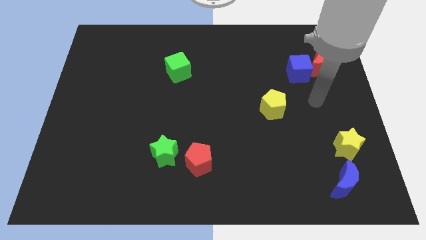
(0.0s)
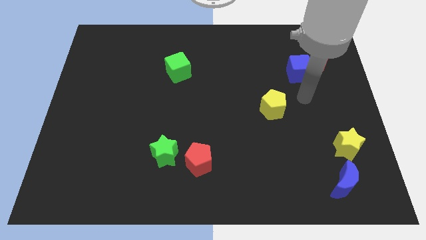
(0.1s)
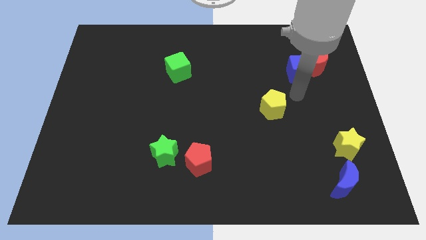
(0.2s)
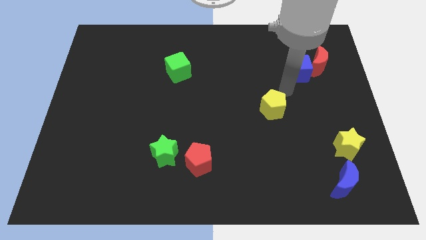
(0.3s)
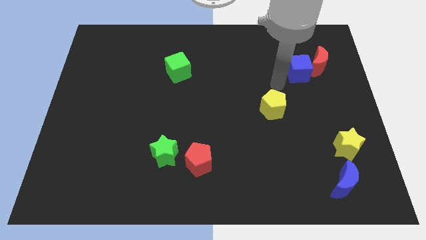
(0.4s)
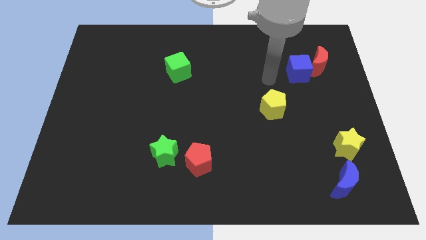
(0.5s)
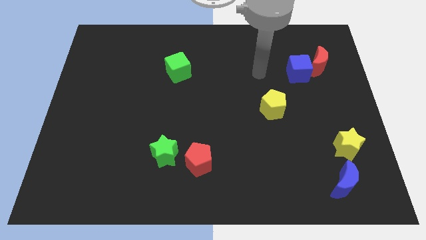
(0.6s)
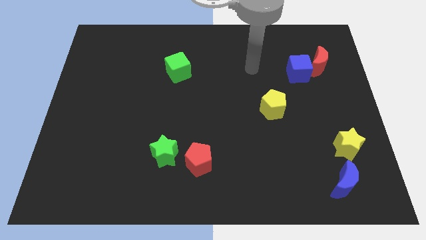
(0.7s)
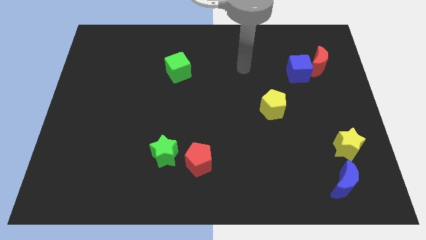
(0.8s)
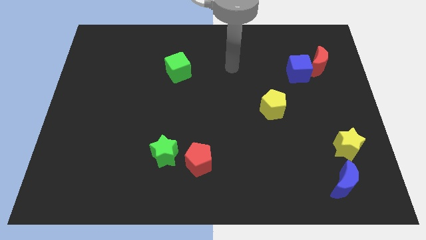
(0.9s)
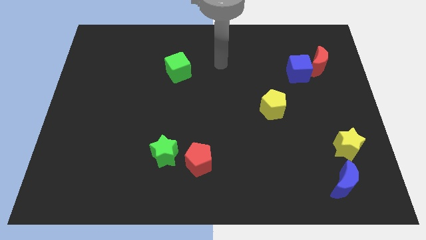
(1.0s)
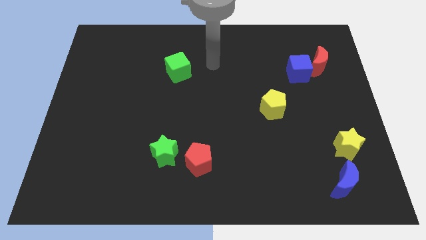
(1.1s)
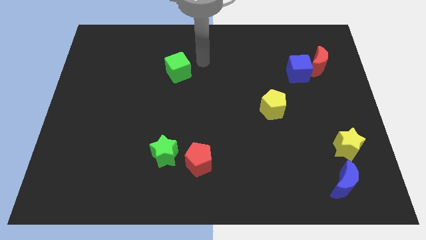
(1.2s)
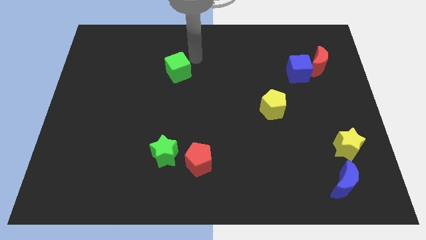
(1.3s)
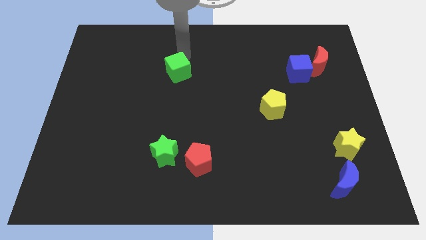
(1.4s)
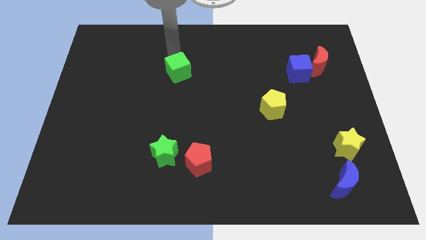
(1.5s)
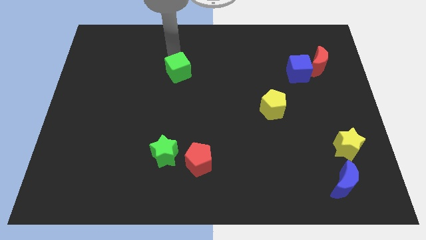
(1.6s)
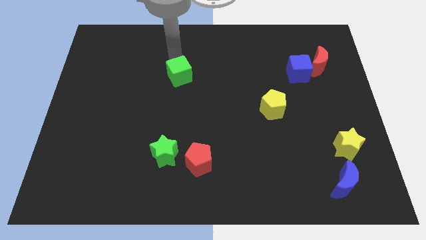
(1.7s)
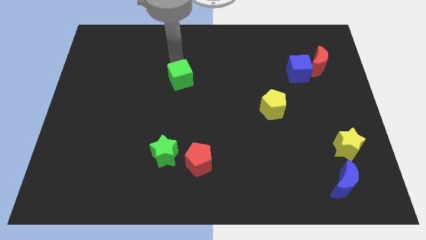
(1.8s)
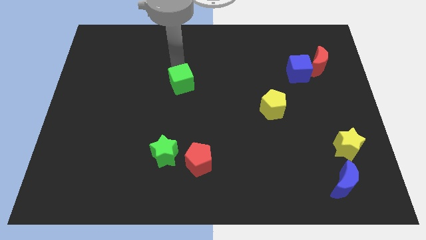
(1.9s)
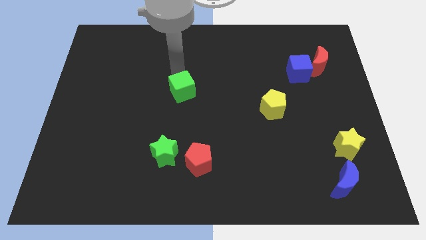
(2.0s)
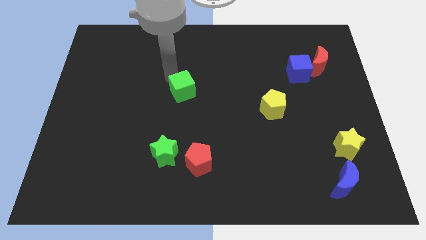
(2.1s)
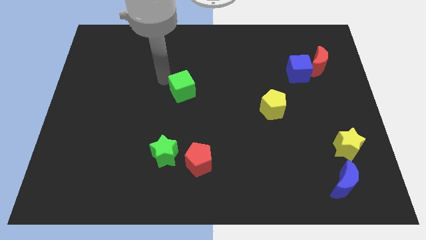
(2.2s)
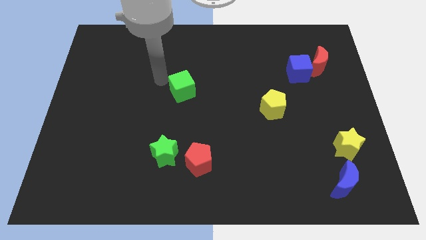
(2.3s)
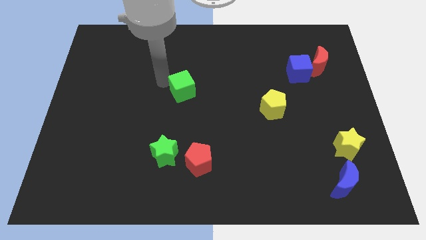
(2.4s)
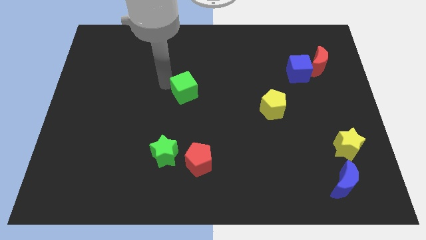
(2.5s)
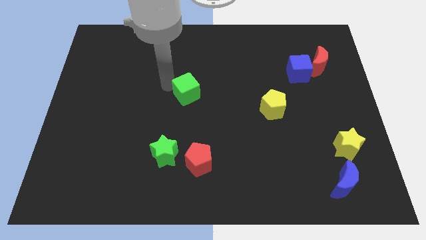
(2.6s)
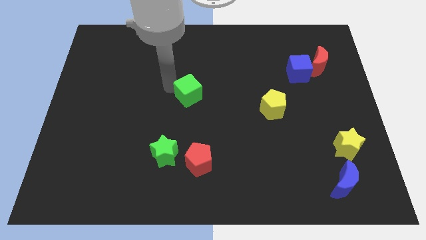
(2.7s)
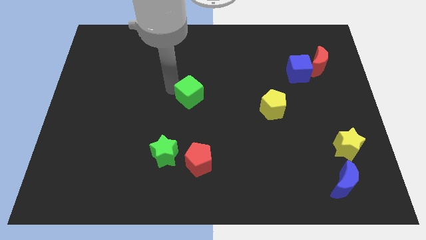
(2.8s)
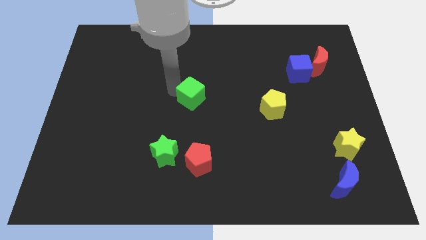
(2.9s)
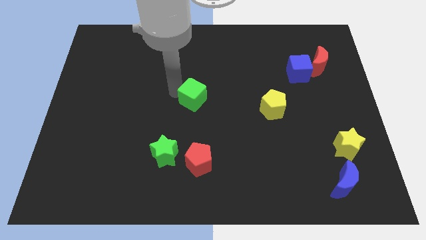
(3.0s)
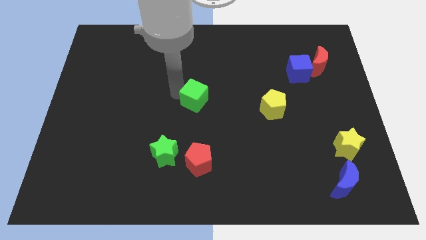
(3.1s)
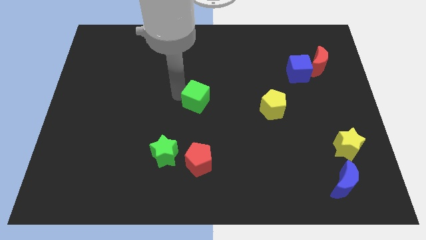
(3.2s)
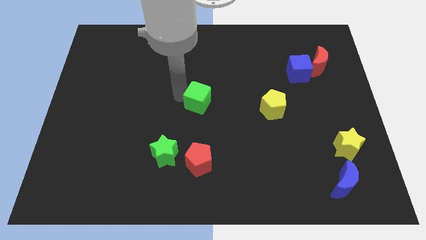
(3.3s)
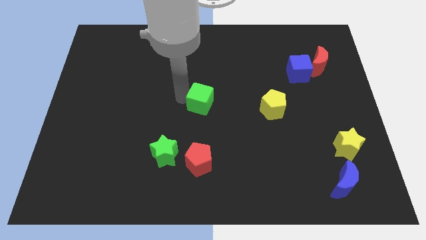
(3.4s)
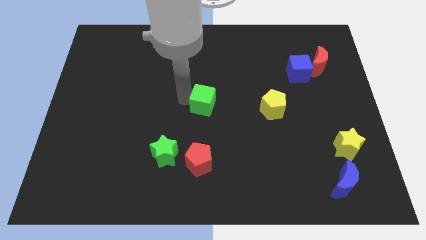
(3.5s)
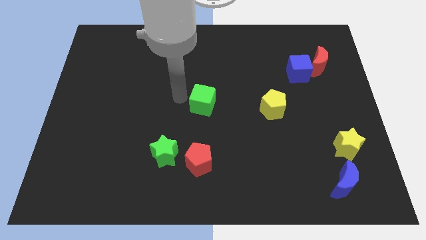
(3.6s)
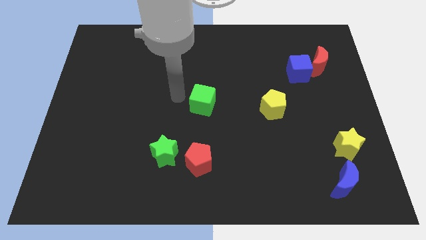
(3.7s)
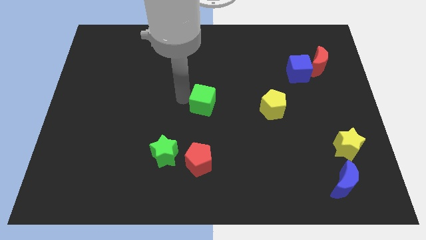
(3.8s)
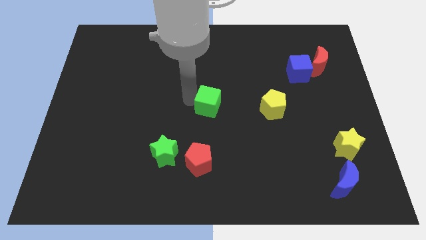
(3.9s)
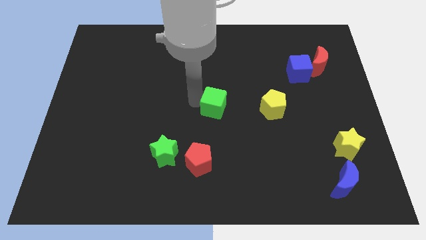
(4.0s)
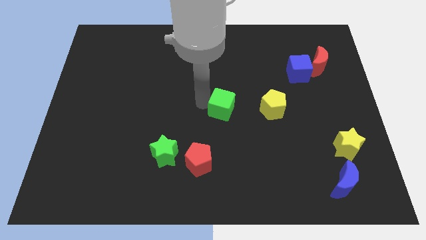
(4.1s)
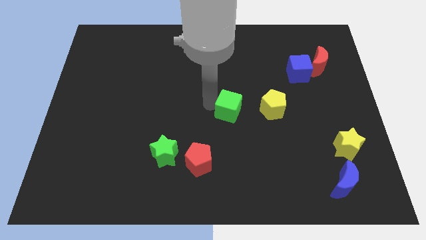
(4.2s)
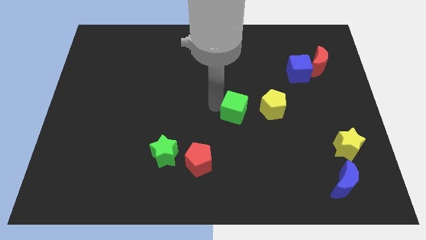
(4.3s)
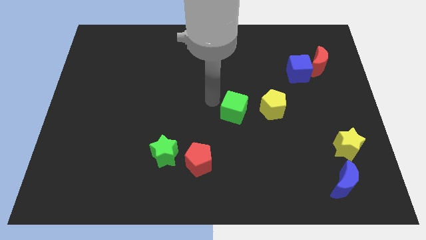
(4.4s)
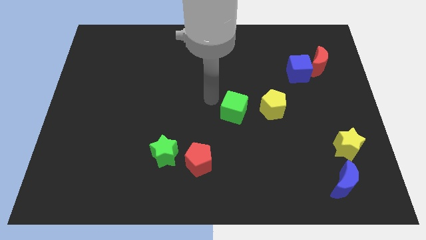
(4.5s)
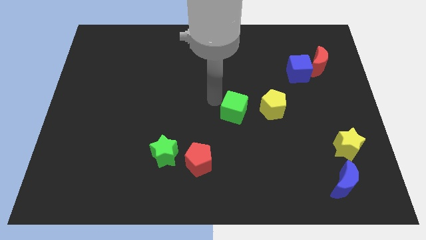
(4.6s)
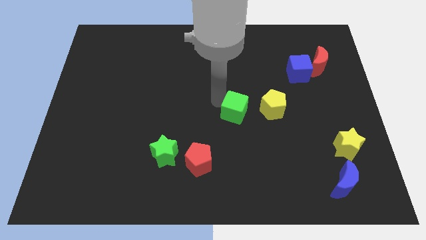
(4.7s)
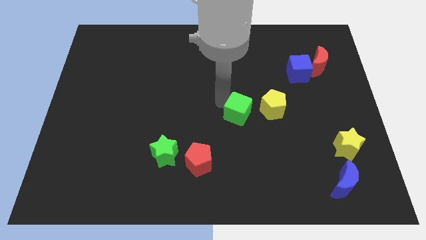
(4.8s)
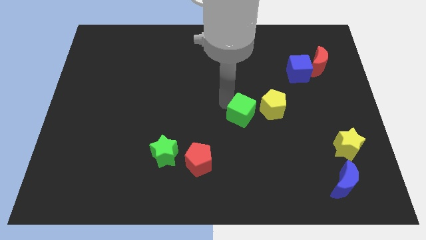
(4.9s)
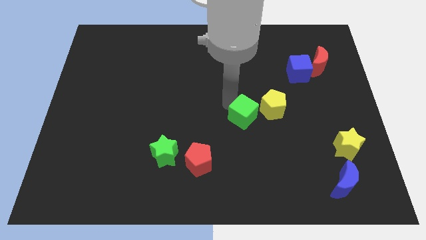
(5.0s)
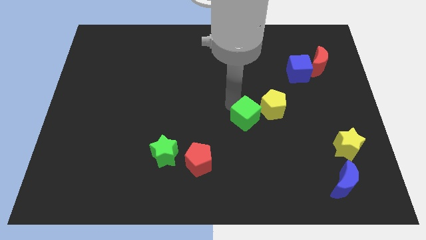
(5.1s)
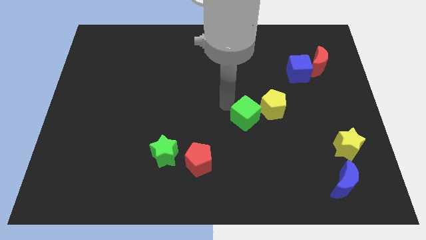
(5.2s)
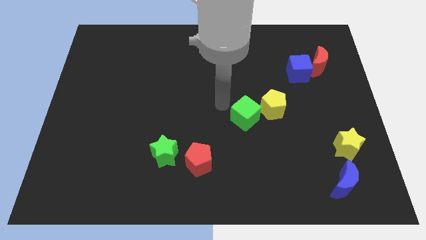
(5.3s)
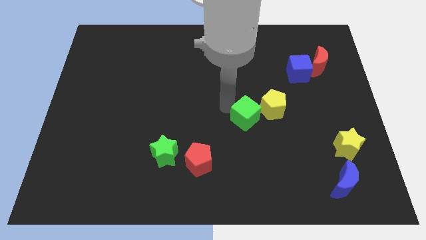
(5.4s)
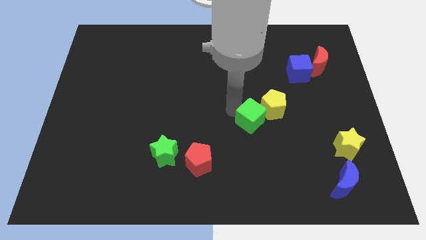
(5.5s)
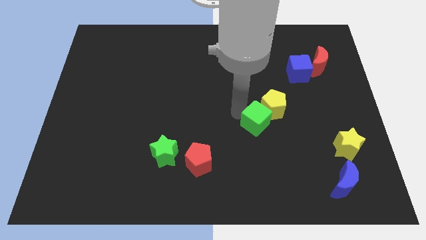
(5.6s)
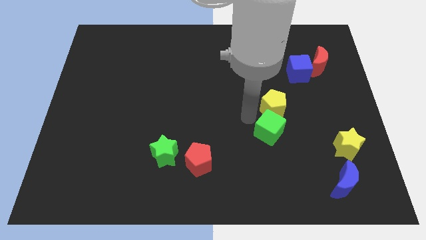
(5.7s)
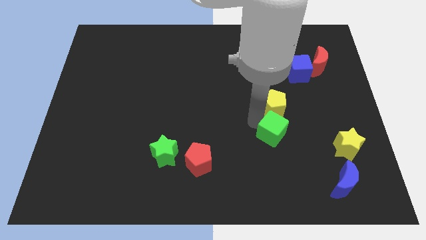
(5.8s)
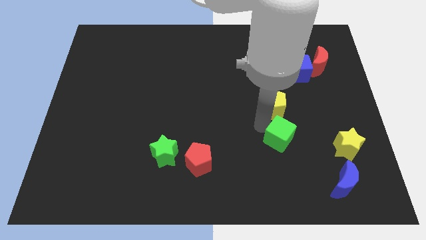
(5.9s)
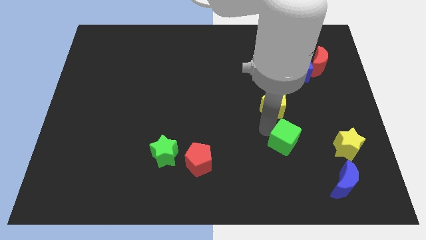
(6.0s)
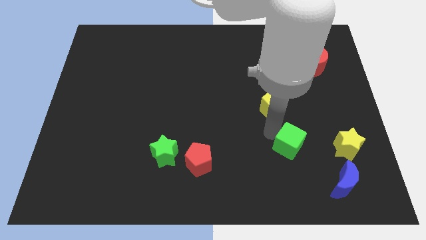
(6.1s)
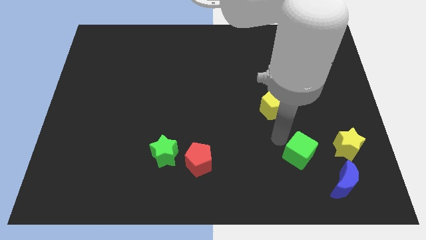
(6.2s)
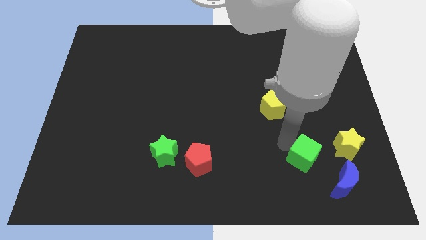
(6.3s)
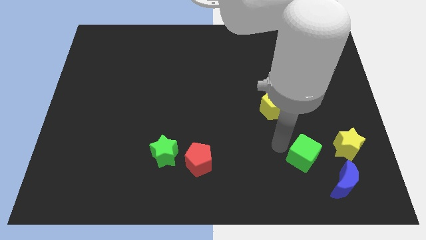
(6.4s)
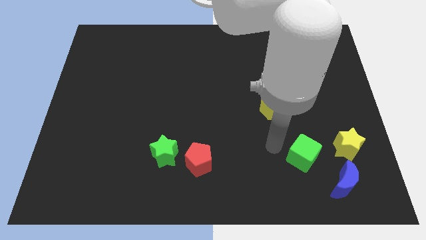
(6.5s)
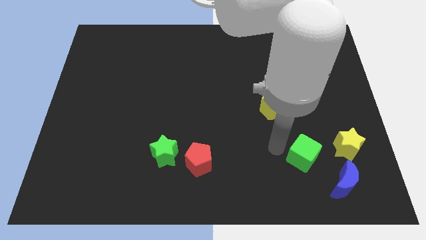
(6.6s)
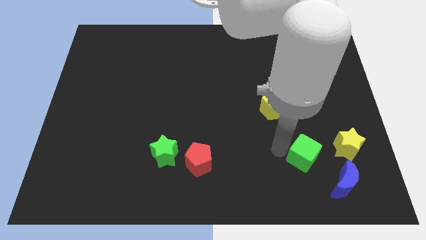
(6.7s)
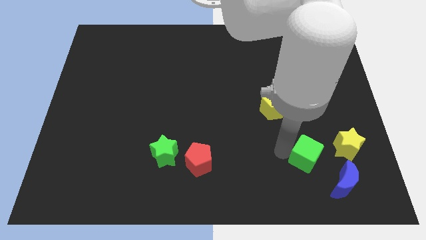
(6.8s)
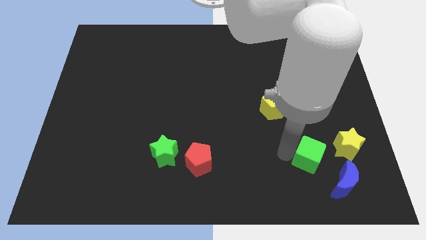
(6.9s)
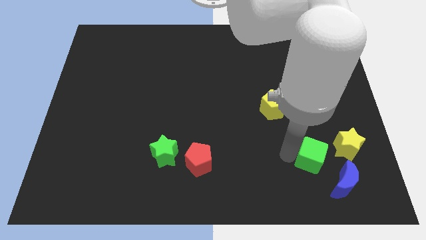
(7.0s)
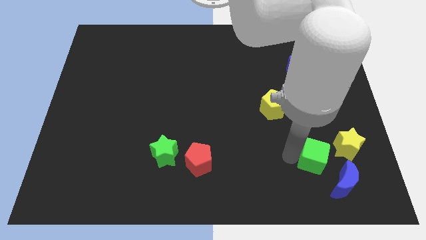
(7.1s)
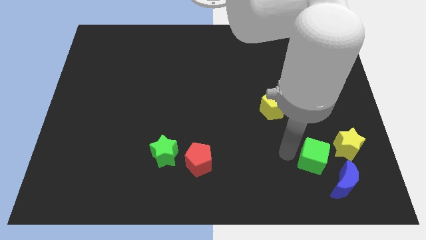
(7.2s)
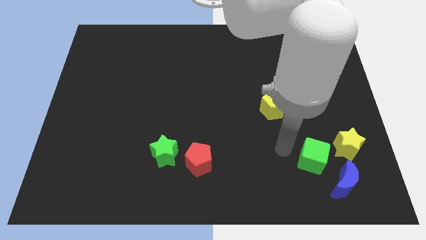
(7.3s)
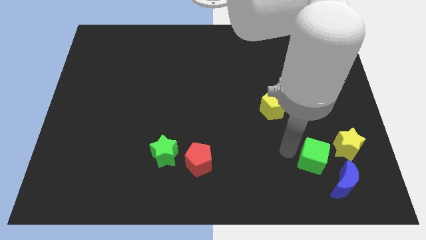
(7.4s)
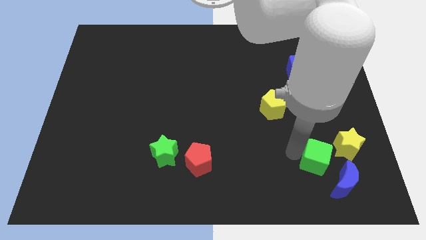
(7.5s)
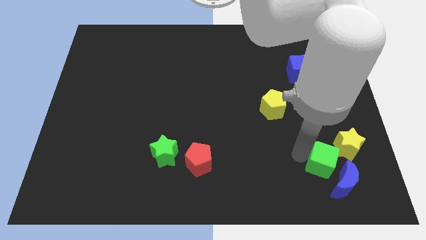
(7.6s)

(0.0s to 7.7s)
push the green cube close to the blue moon
